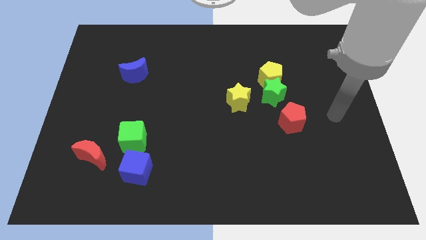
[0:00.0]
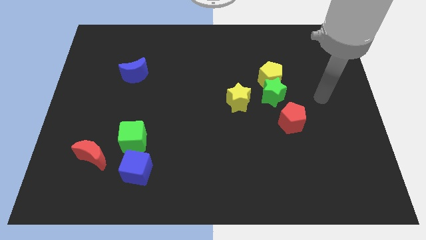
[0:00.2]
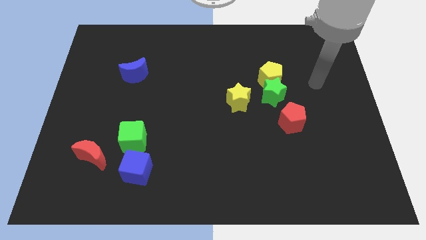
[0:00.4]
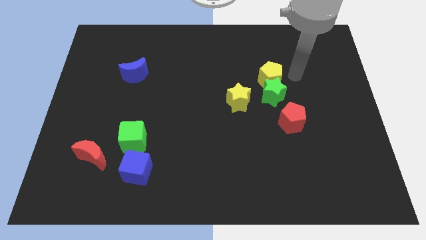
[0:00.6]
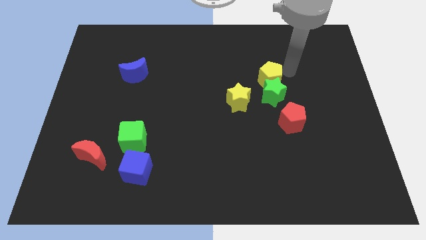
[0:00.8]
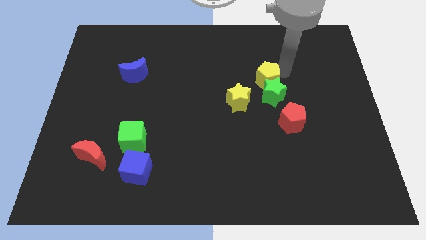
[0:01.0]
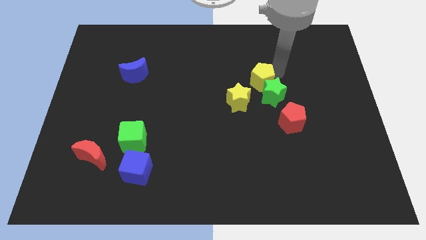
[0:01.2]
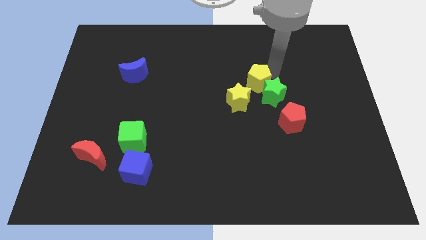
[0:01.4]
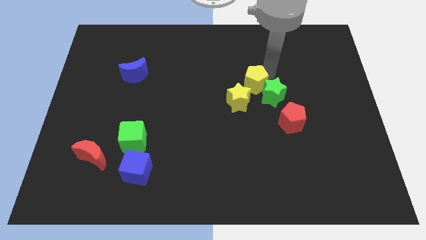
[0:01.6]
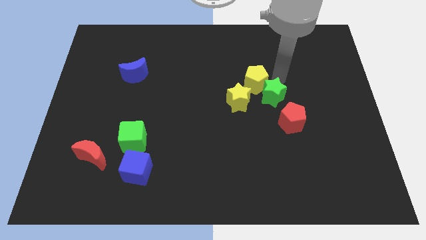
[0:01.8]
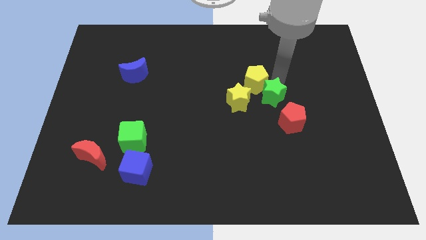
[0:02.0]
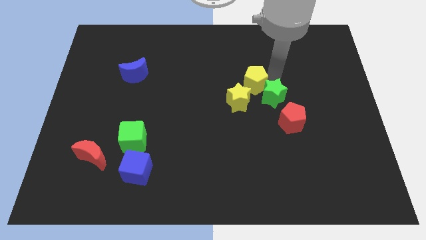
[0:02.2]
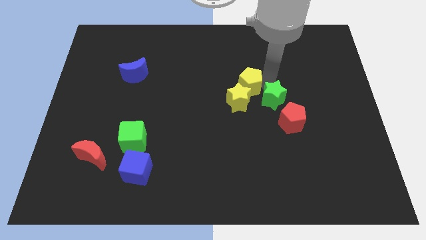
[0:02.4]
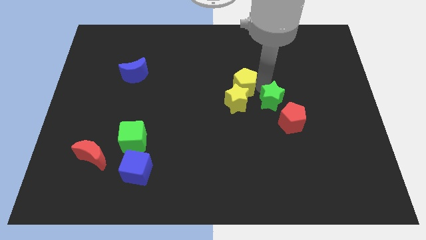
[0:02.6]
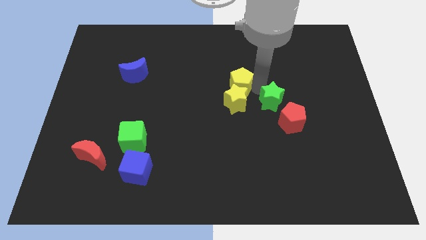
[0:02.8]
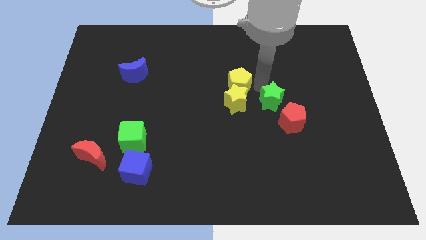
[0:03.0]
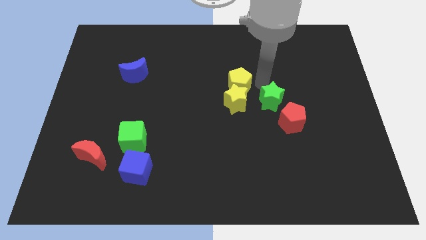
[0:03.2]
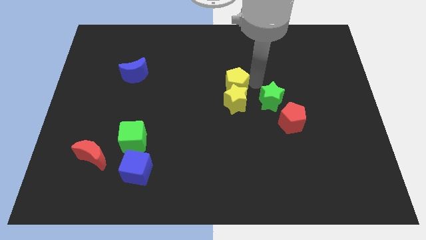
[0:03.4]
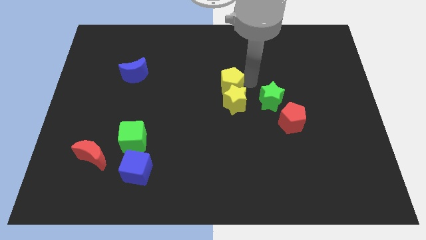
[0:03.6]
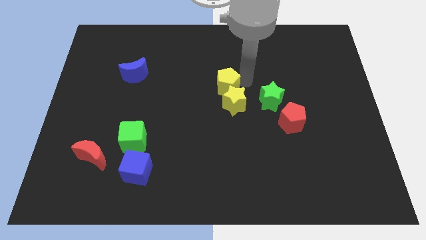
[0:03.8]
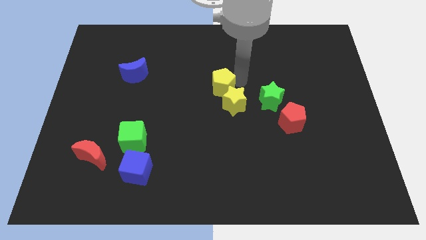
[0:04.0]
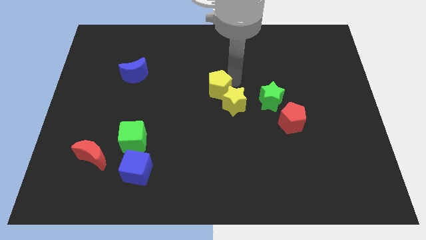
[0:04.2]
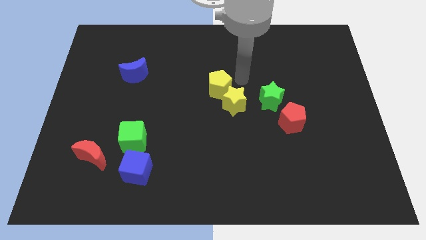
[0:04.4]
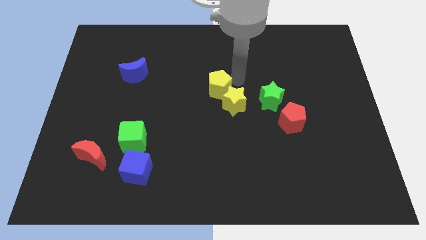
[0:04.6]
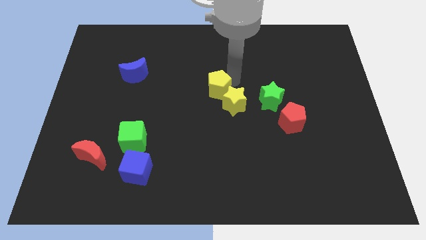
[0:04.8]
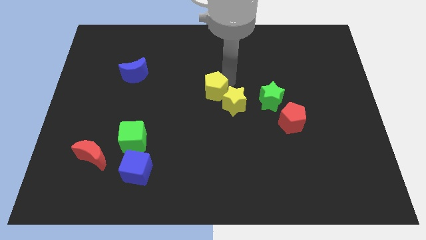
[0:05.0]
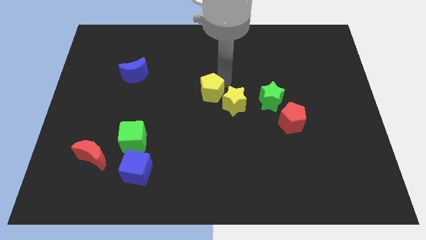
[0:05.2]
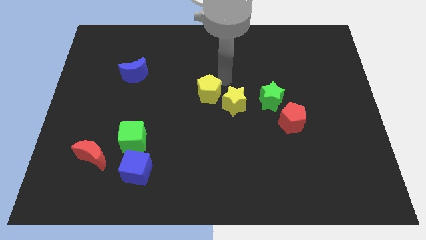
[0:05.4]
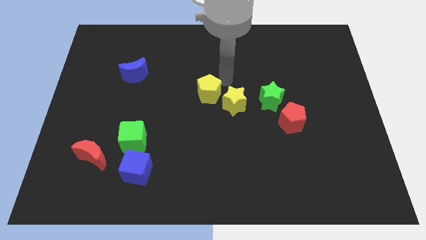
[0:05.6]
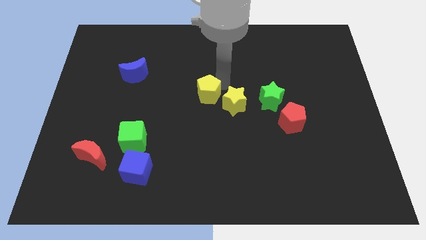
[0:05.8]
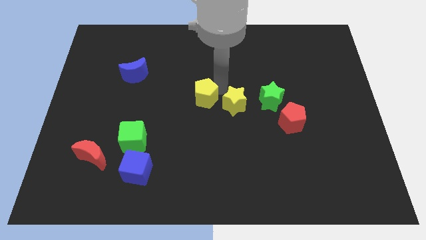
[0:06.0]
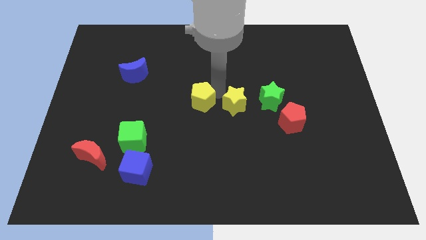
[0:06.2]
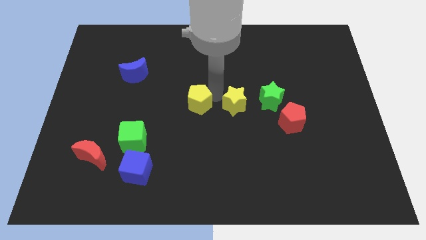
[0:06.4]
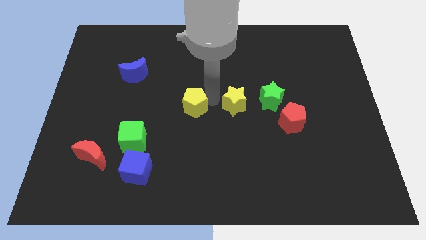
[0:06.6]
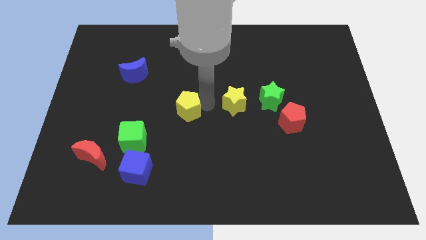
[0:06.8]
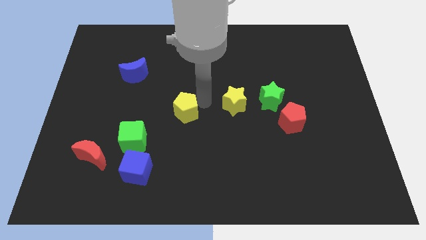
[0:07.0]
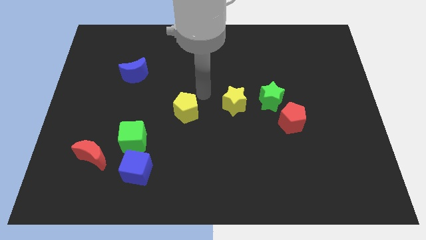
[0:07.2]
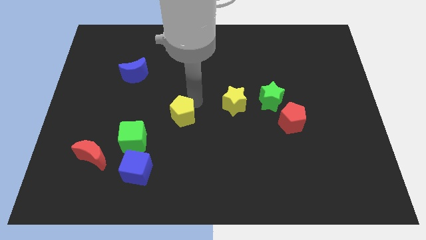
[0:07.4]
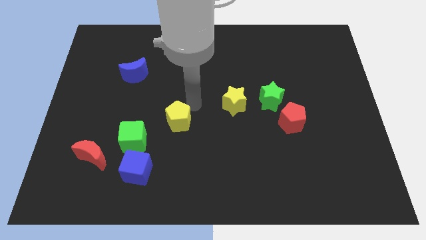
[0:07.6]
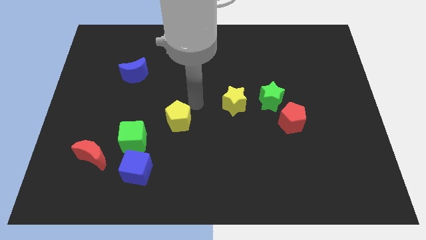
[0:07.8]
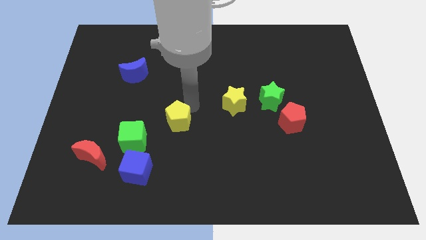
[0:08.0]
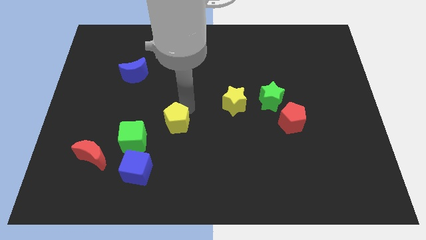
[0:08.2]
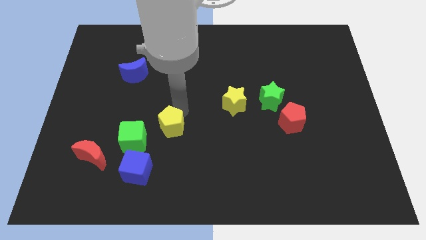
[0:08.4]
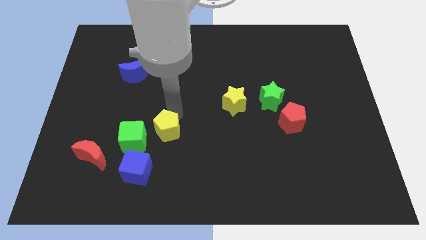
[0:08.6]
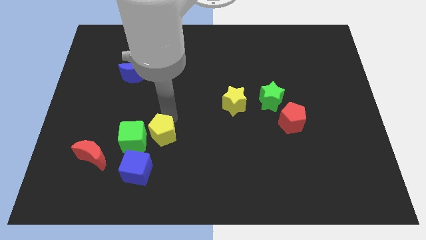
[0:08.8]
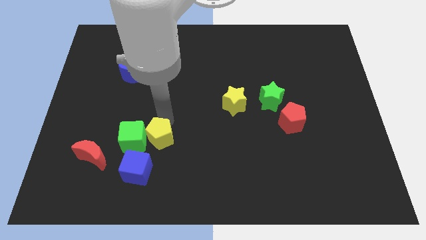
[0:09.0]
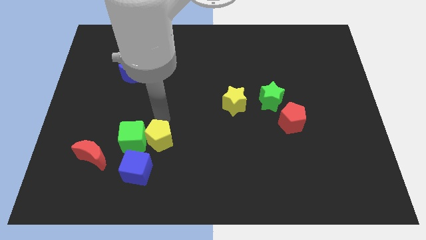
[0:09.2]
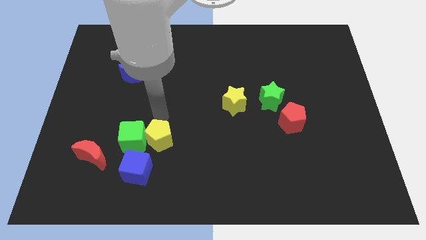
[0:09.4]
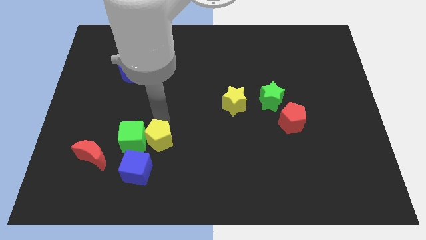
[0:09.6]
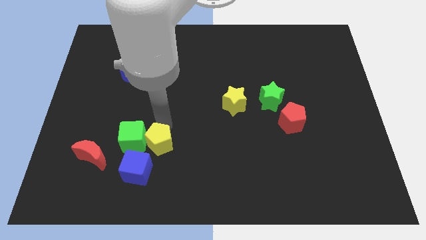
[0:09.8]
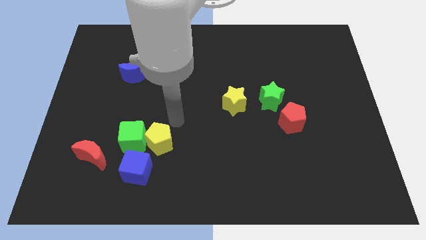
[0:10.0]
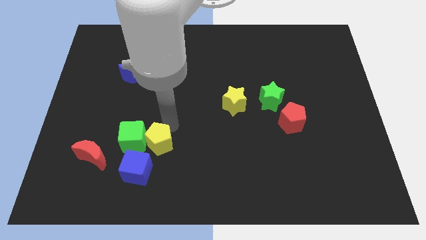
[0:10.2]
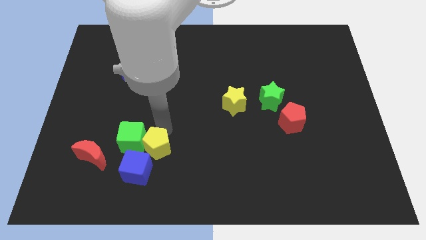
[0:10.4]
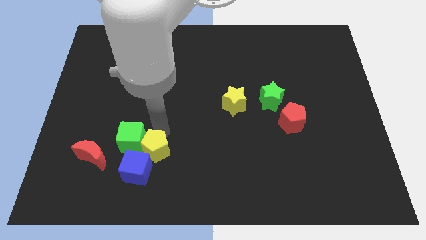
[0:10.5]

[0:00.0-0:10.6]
move the yellow pentagon next to the blue cube

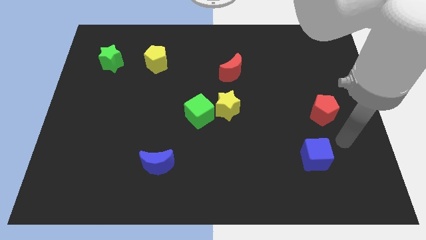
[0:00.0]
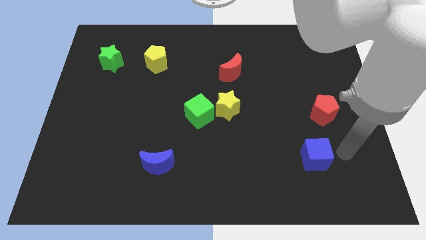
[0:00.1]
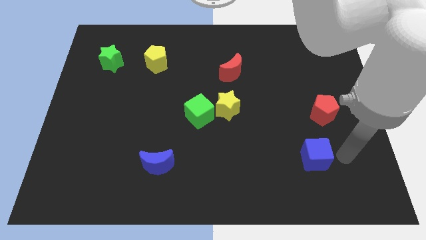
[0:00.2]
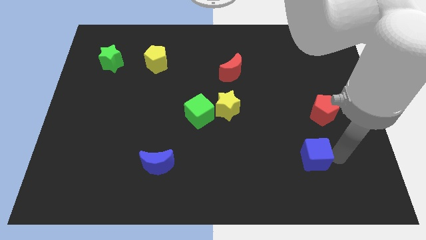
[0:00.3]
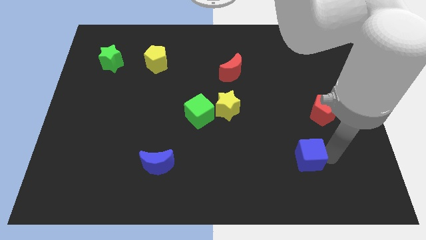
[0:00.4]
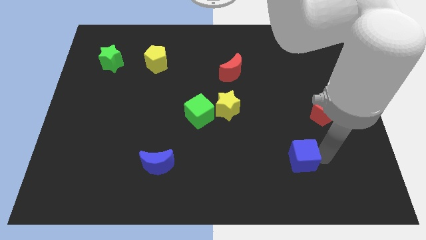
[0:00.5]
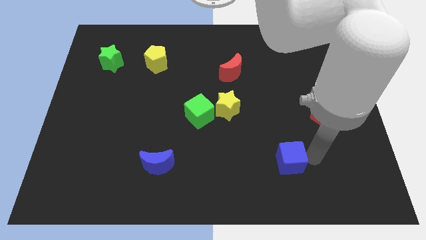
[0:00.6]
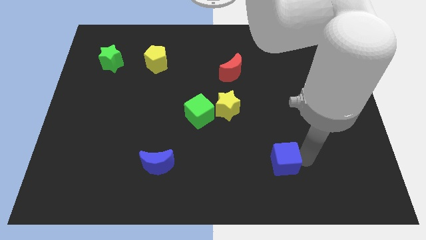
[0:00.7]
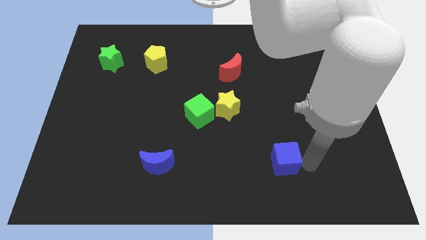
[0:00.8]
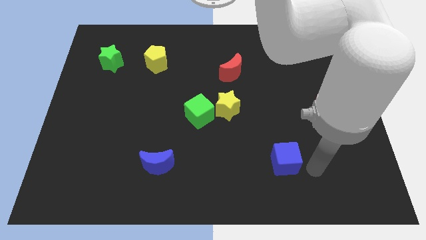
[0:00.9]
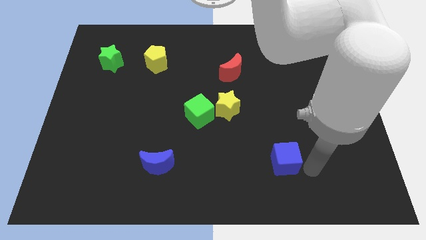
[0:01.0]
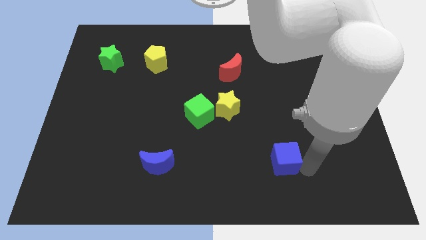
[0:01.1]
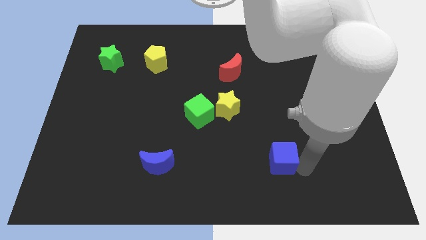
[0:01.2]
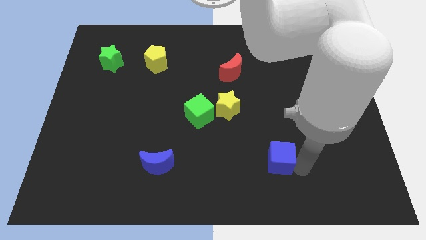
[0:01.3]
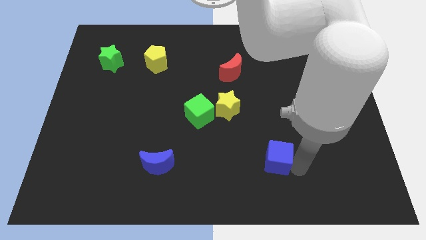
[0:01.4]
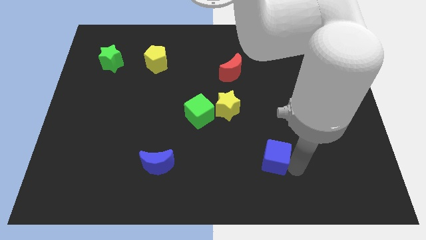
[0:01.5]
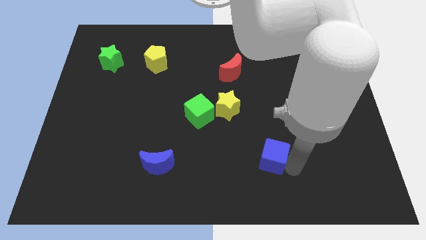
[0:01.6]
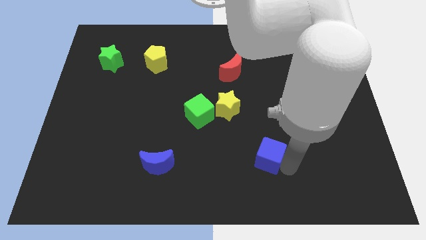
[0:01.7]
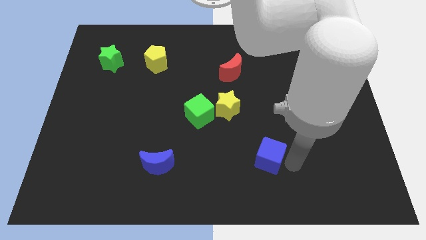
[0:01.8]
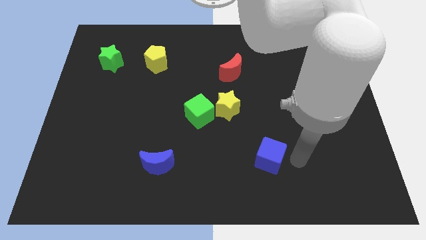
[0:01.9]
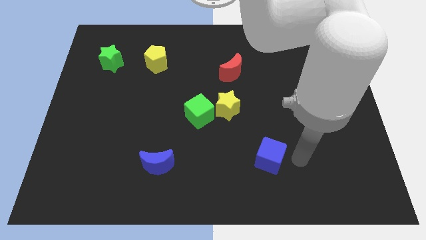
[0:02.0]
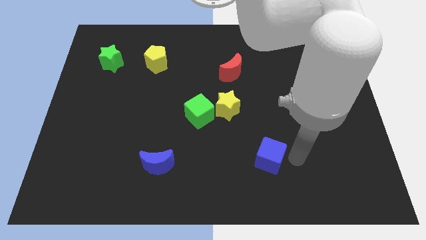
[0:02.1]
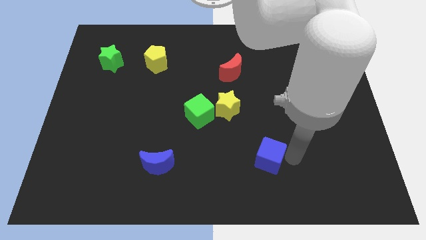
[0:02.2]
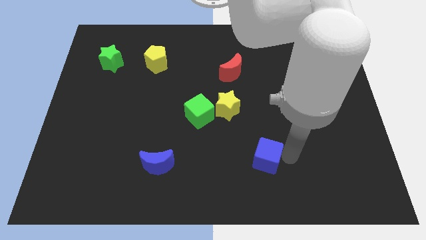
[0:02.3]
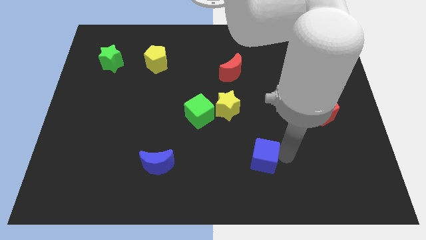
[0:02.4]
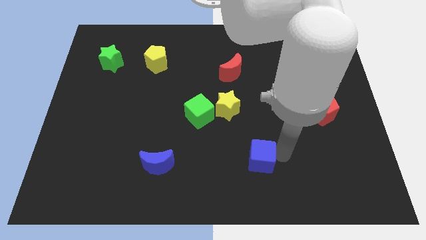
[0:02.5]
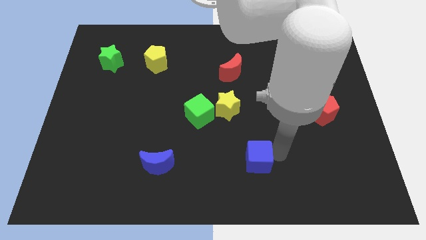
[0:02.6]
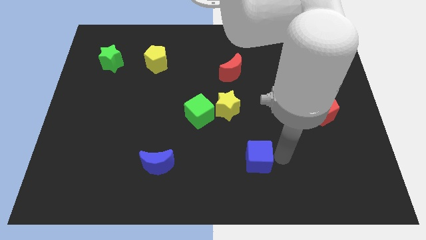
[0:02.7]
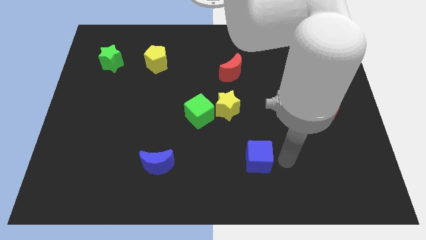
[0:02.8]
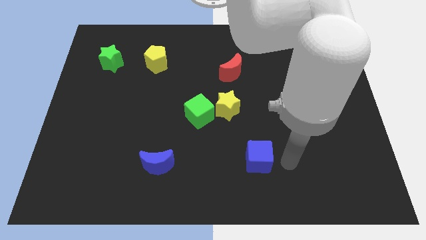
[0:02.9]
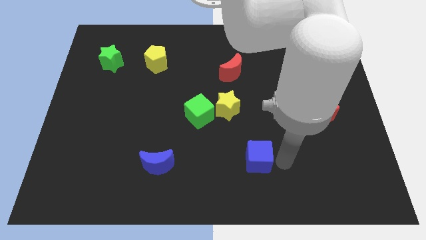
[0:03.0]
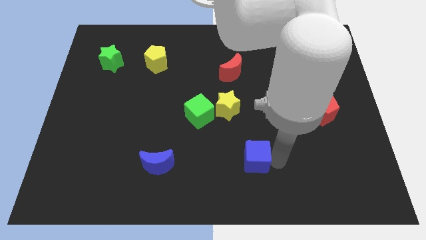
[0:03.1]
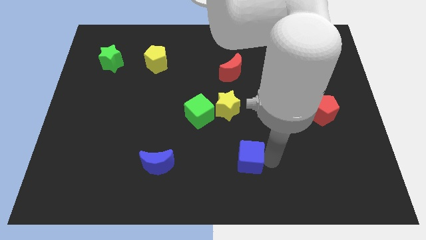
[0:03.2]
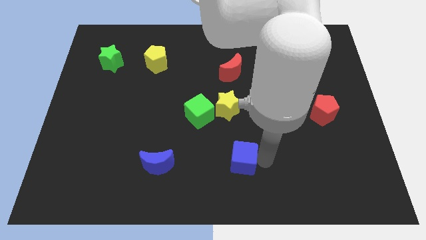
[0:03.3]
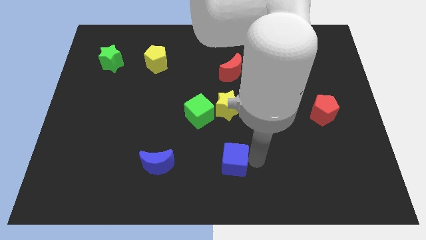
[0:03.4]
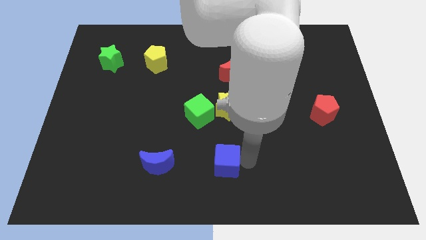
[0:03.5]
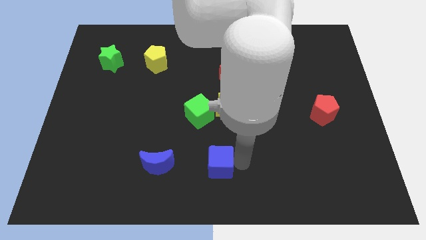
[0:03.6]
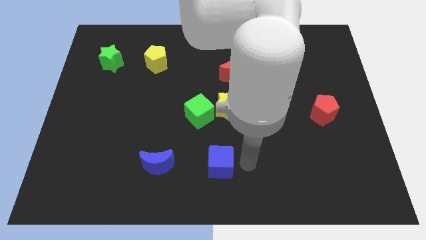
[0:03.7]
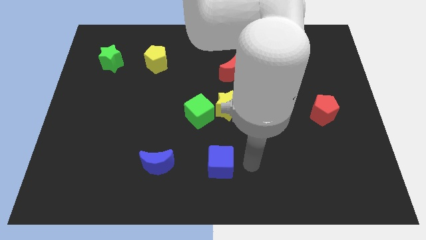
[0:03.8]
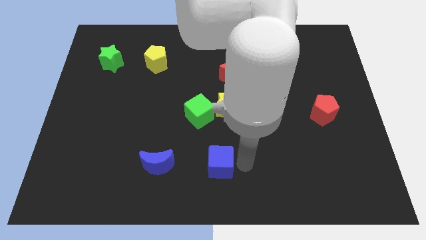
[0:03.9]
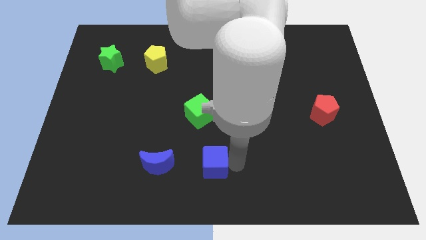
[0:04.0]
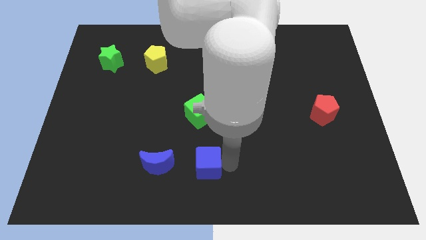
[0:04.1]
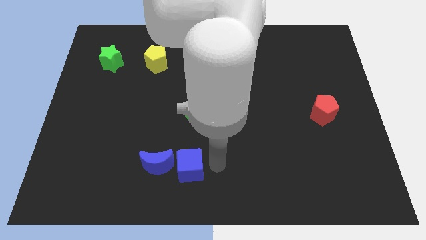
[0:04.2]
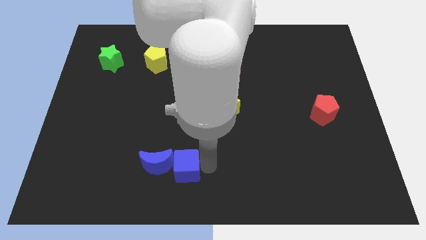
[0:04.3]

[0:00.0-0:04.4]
push the blue cube close to the blue moon
